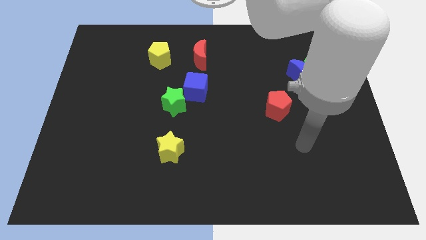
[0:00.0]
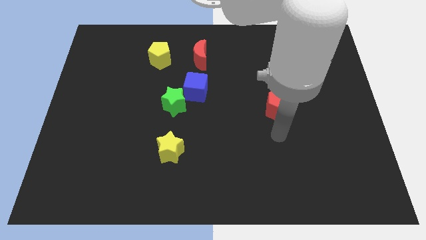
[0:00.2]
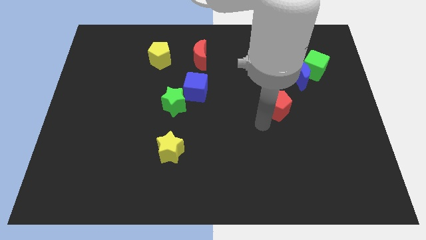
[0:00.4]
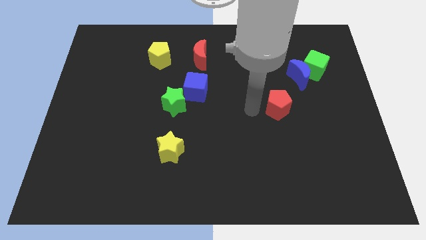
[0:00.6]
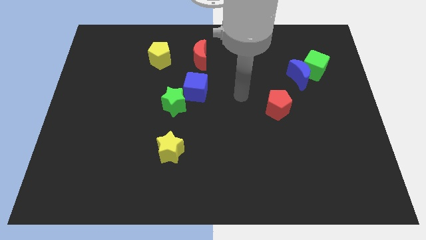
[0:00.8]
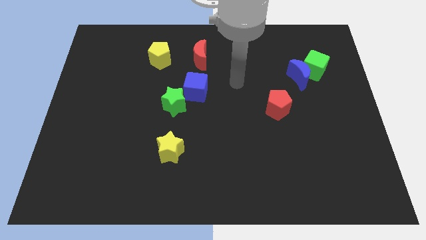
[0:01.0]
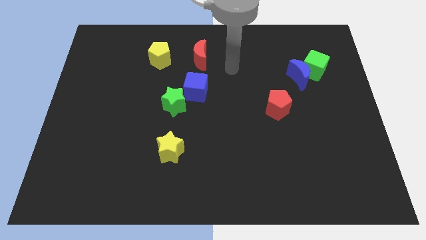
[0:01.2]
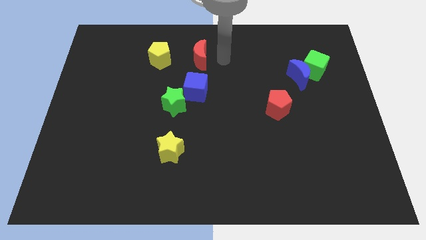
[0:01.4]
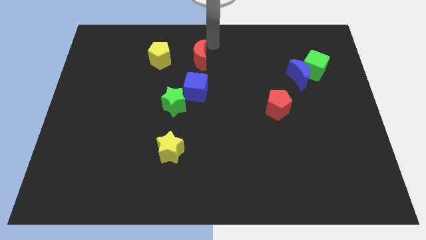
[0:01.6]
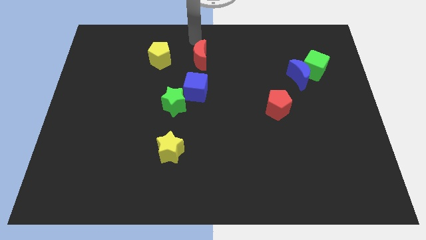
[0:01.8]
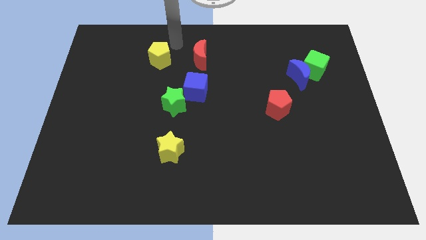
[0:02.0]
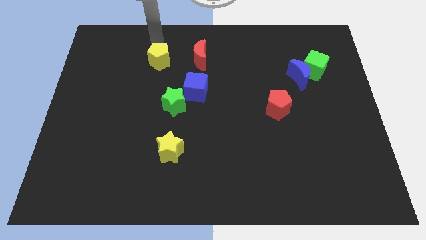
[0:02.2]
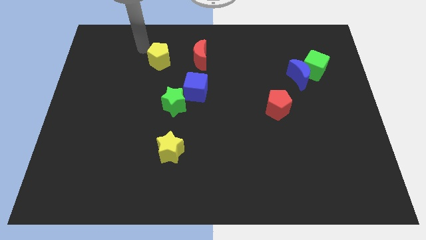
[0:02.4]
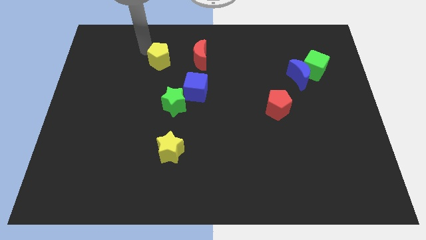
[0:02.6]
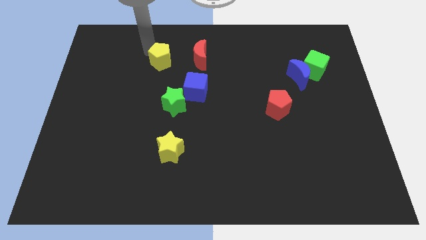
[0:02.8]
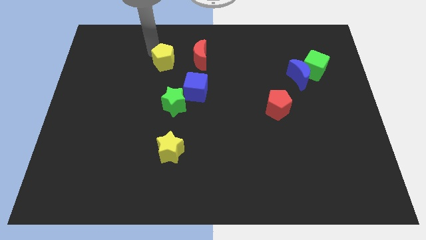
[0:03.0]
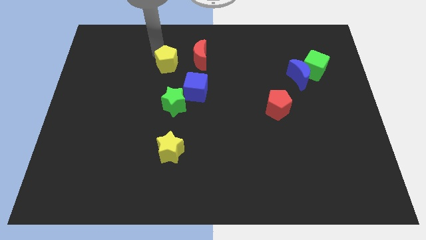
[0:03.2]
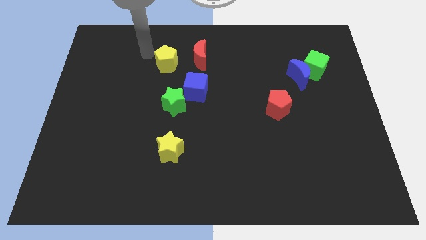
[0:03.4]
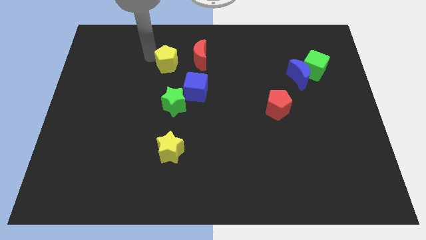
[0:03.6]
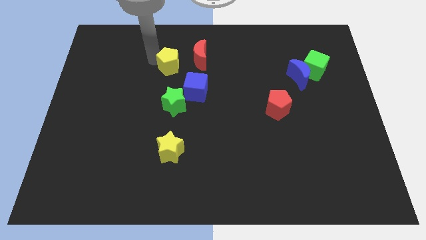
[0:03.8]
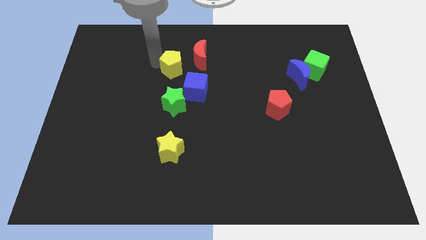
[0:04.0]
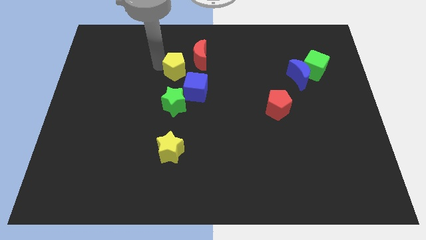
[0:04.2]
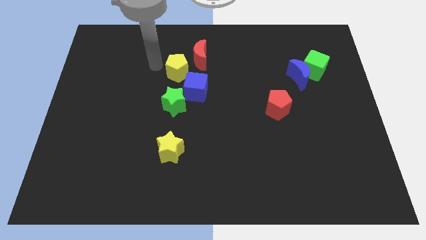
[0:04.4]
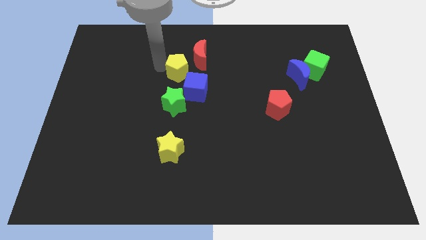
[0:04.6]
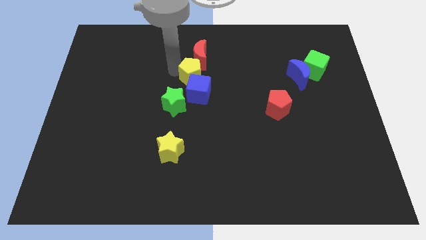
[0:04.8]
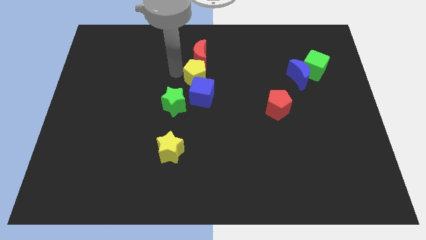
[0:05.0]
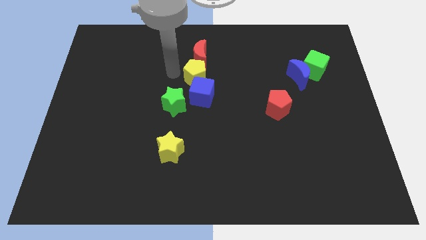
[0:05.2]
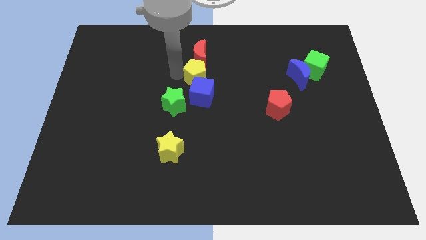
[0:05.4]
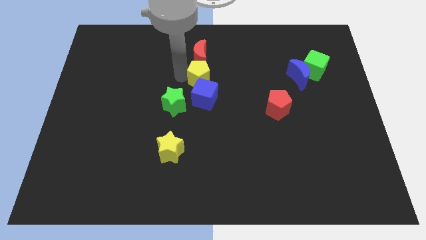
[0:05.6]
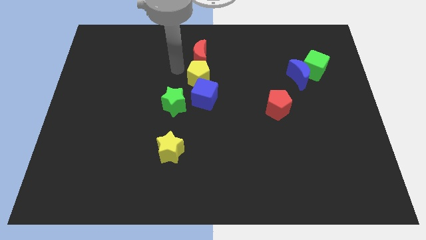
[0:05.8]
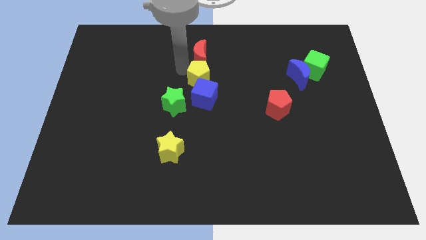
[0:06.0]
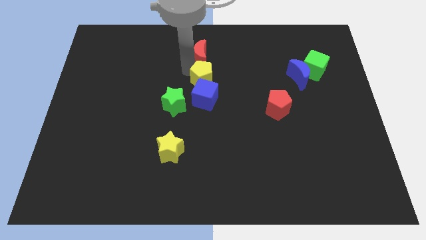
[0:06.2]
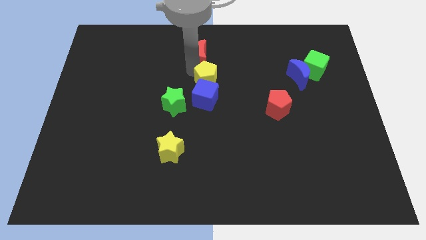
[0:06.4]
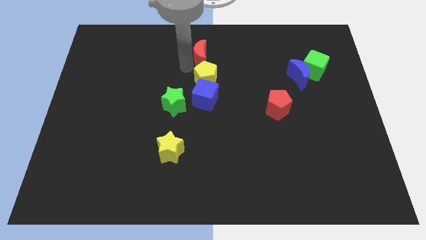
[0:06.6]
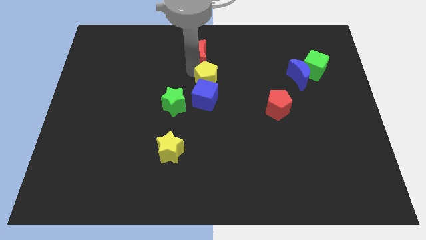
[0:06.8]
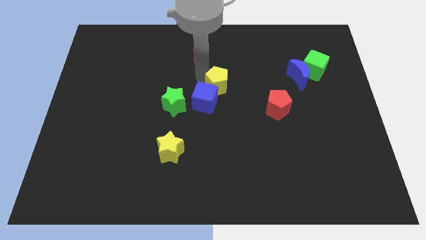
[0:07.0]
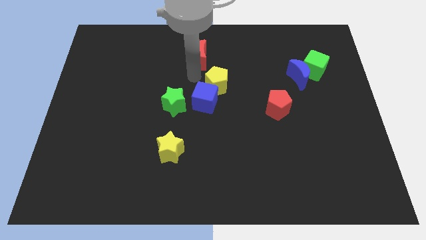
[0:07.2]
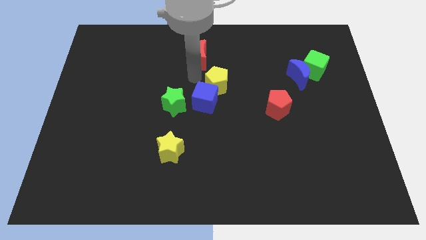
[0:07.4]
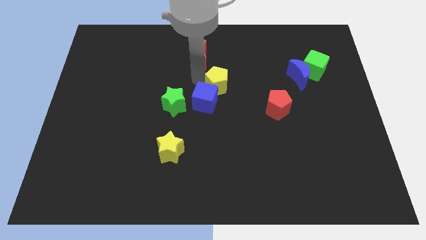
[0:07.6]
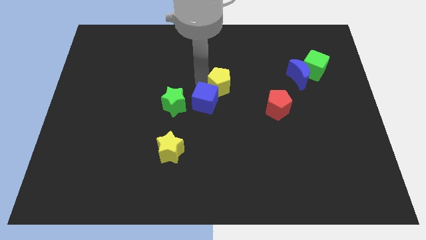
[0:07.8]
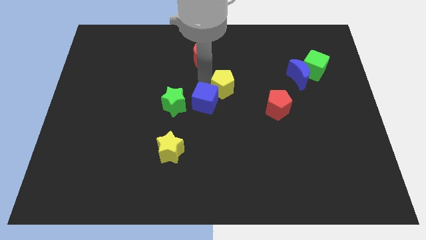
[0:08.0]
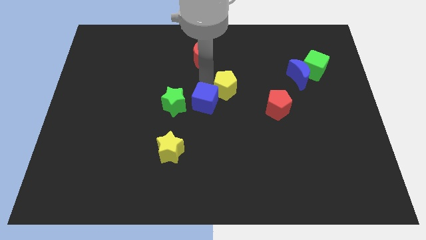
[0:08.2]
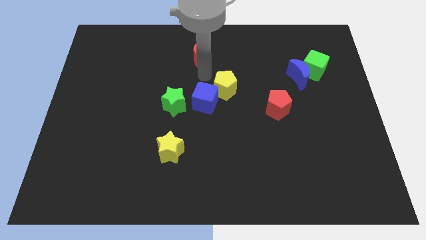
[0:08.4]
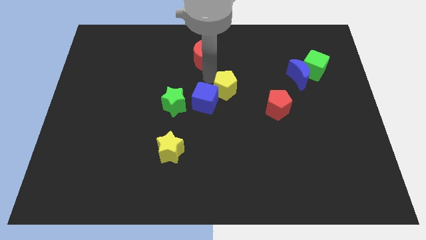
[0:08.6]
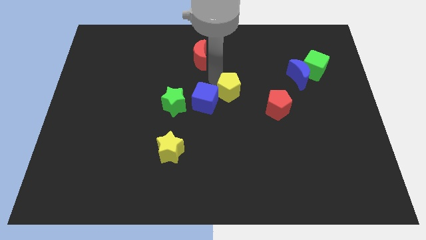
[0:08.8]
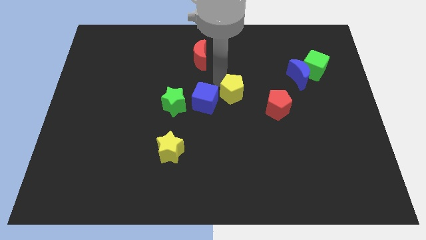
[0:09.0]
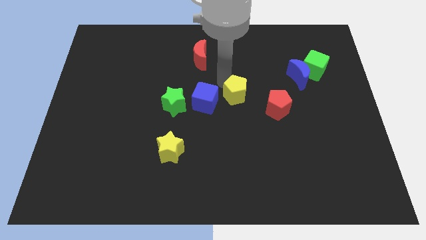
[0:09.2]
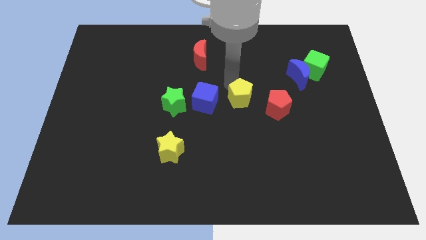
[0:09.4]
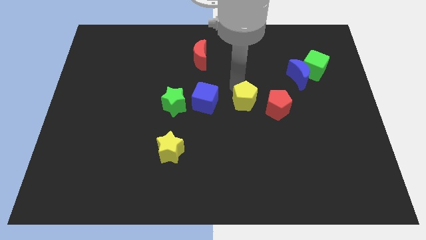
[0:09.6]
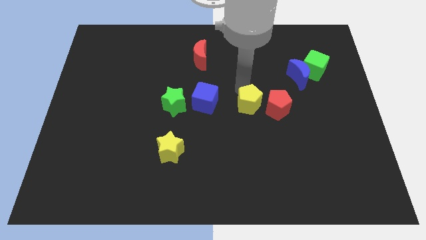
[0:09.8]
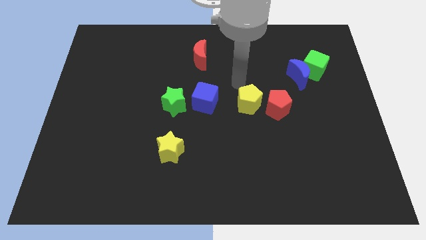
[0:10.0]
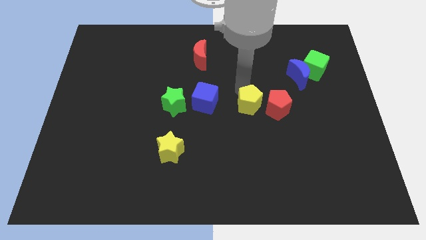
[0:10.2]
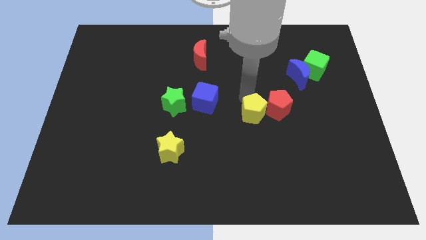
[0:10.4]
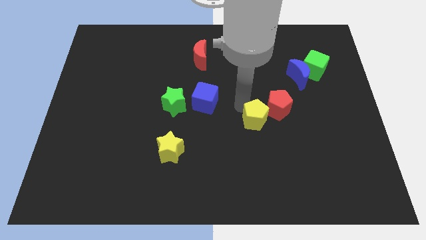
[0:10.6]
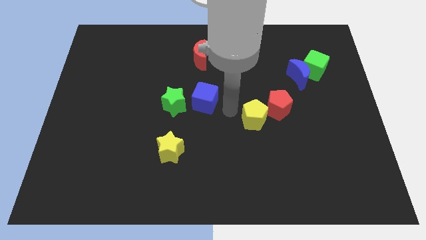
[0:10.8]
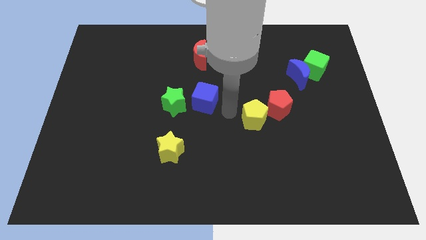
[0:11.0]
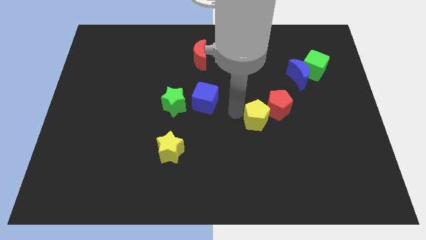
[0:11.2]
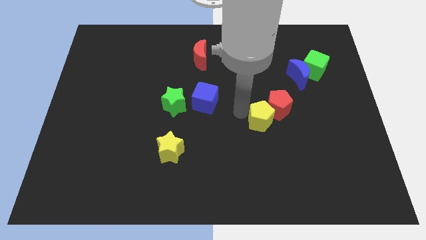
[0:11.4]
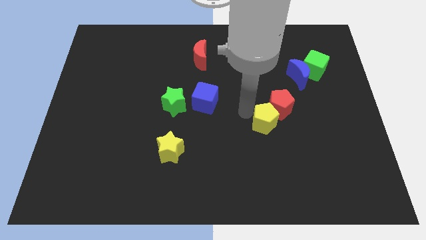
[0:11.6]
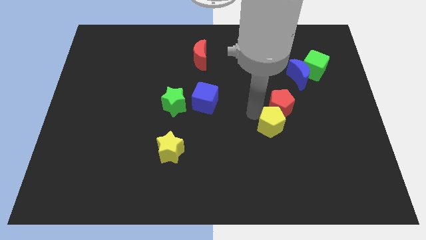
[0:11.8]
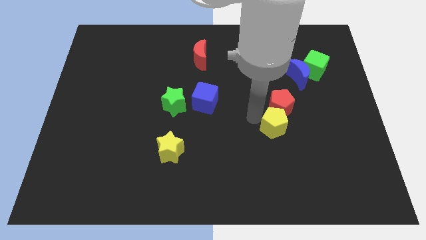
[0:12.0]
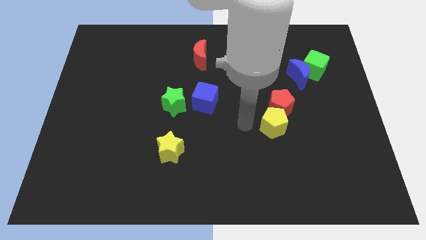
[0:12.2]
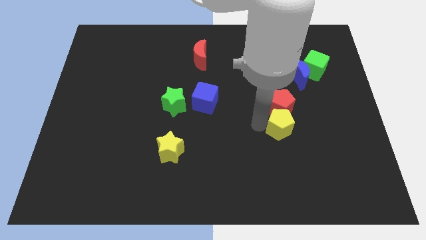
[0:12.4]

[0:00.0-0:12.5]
put the yellow pentagon diagonally down and to the right of the red pentagon

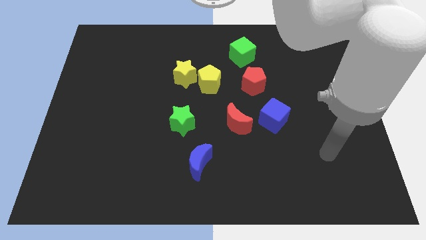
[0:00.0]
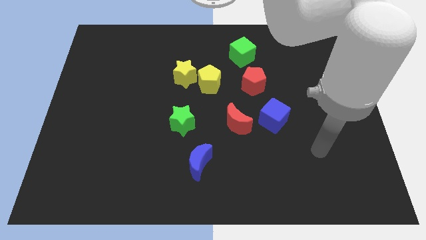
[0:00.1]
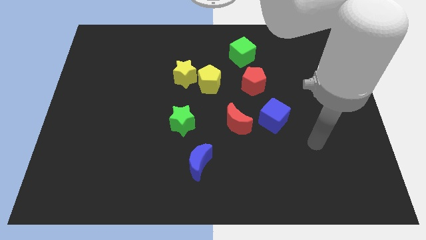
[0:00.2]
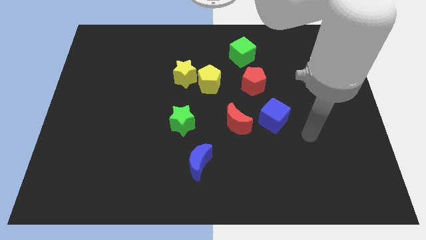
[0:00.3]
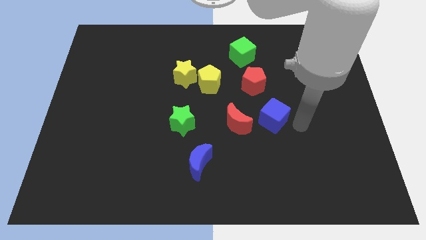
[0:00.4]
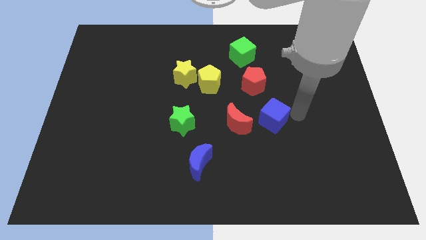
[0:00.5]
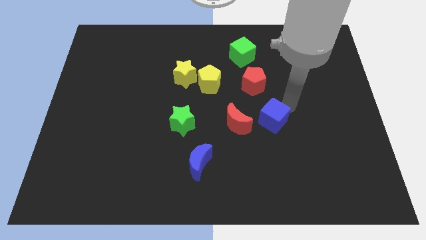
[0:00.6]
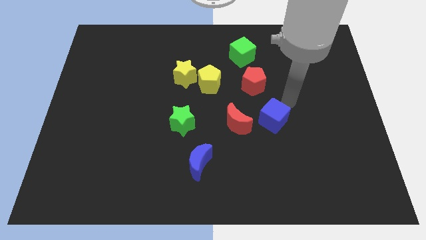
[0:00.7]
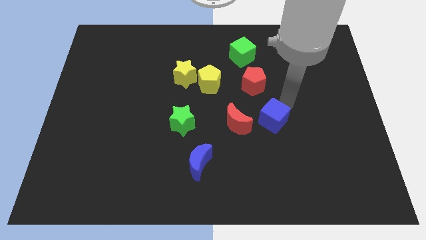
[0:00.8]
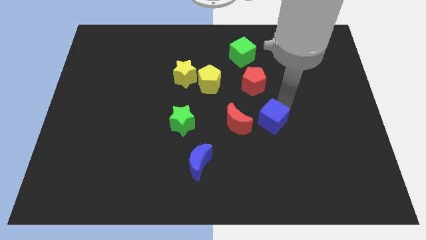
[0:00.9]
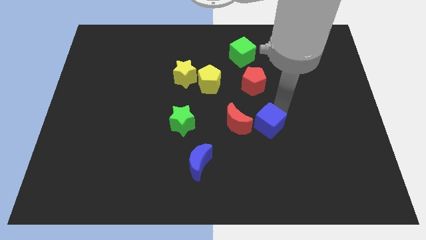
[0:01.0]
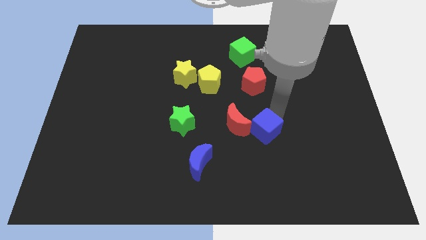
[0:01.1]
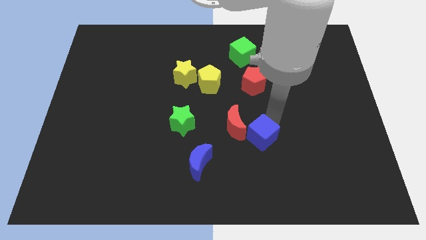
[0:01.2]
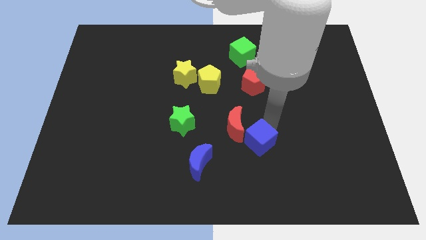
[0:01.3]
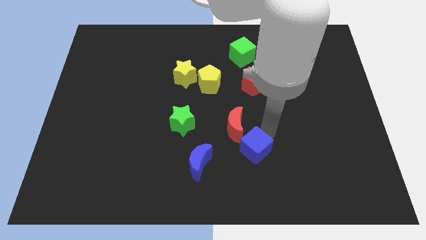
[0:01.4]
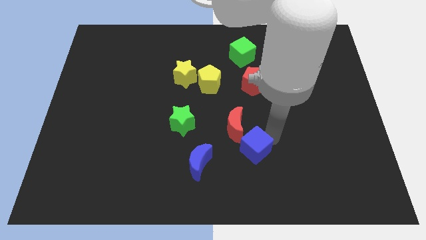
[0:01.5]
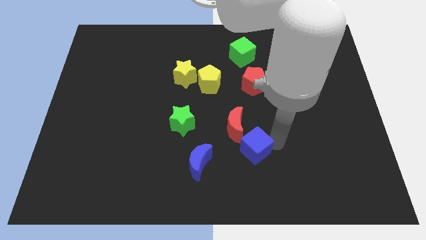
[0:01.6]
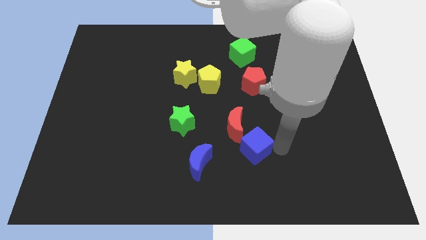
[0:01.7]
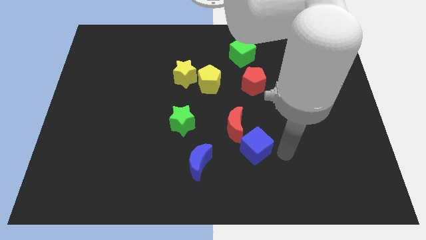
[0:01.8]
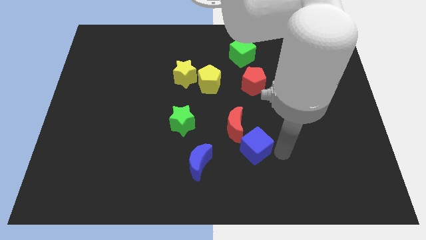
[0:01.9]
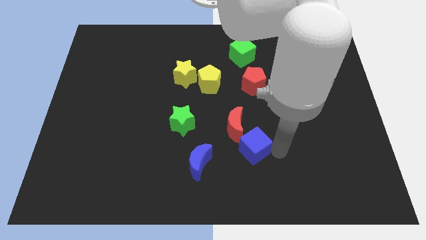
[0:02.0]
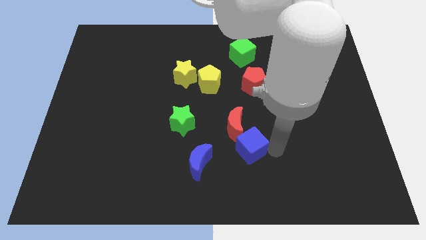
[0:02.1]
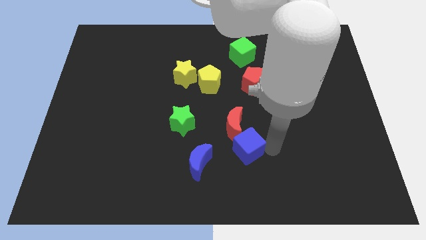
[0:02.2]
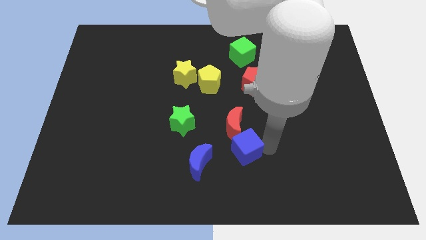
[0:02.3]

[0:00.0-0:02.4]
move the blue cube diagonally up and to the right of the blue moon
